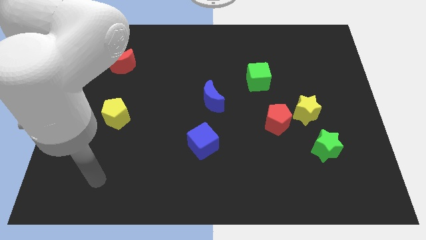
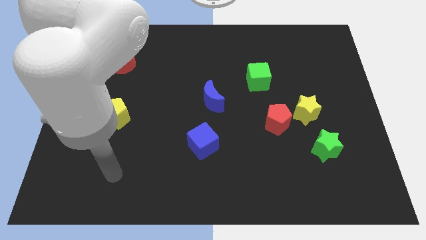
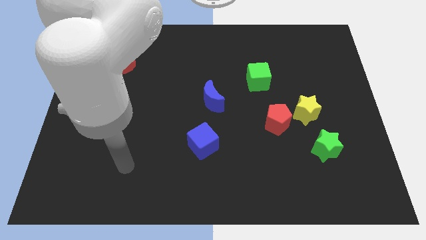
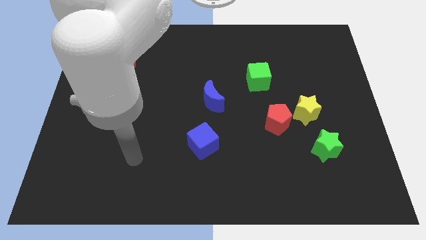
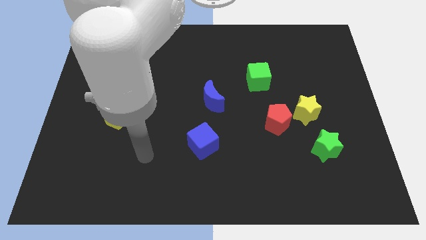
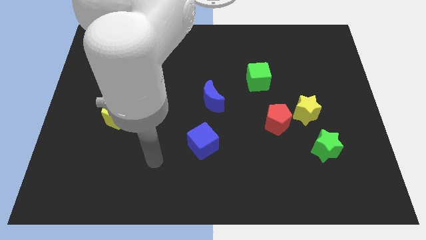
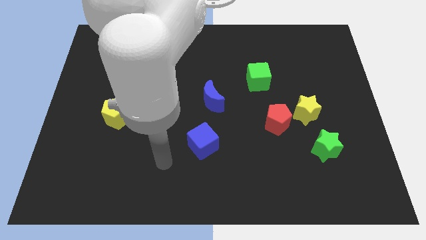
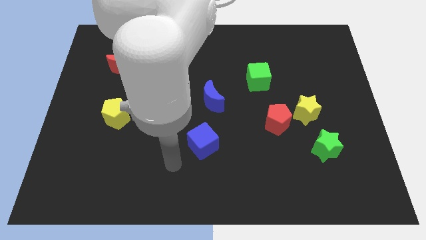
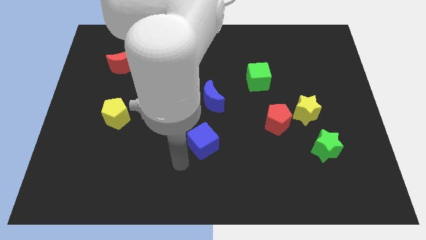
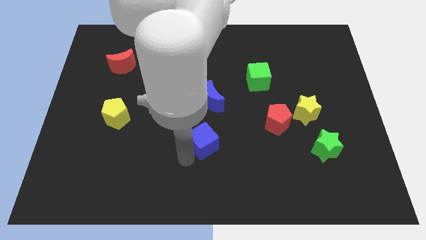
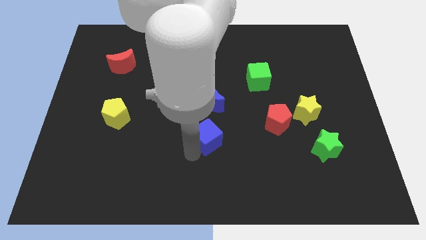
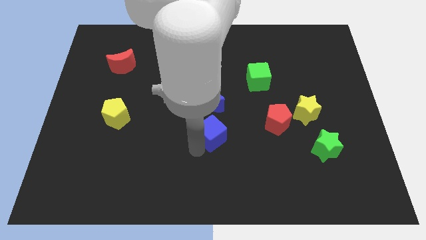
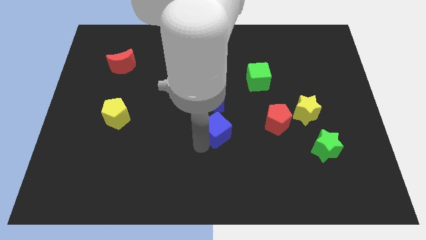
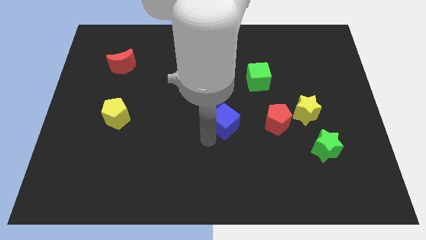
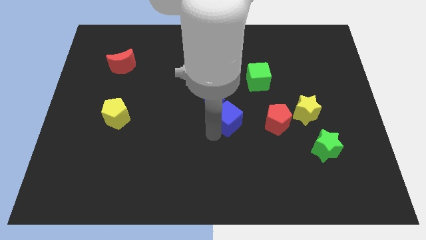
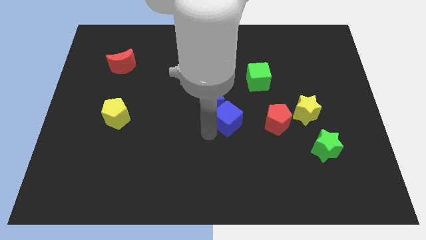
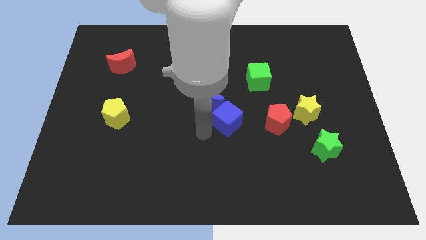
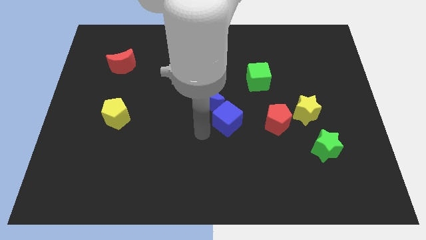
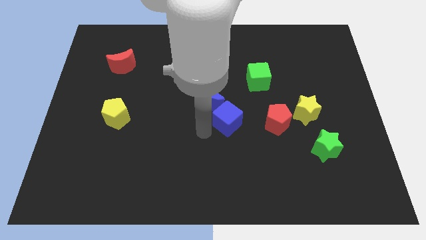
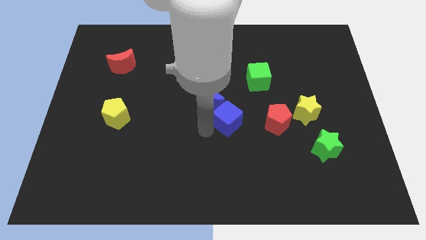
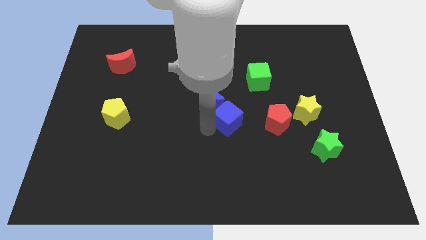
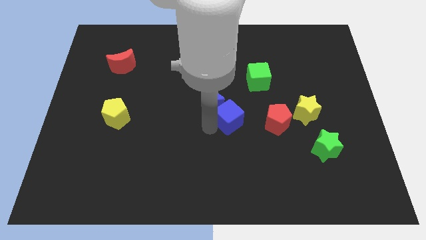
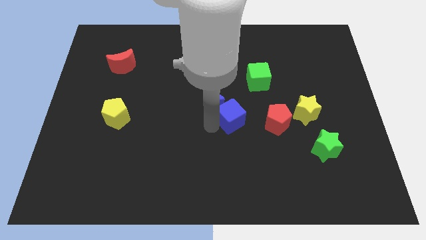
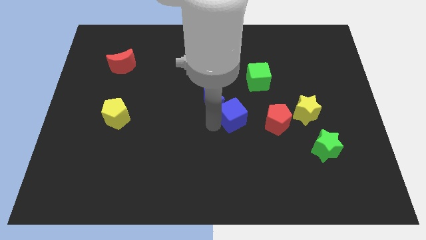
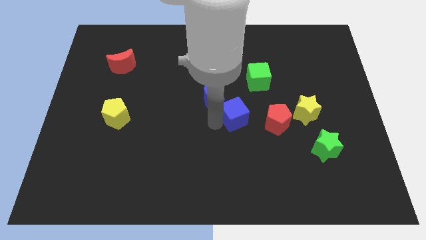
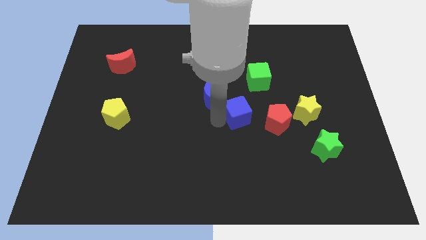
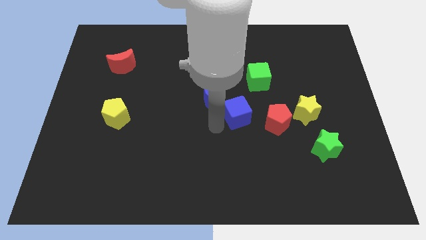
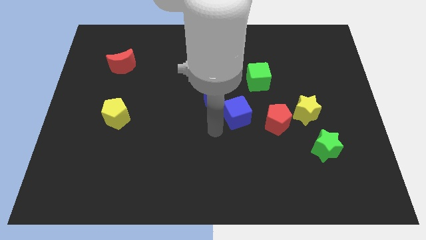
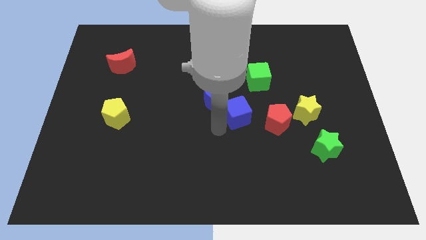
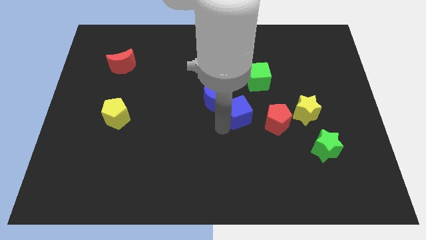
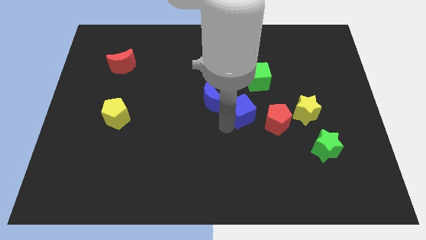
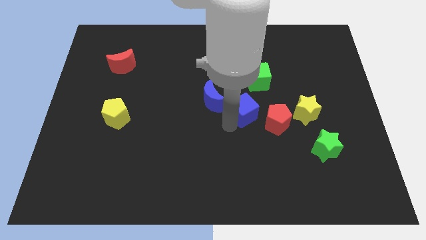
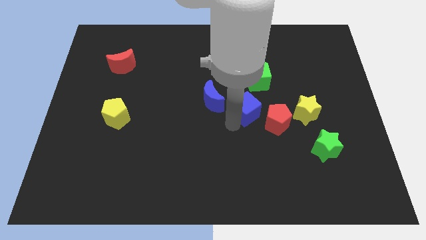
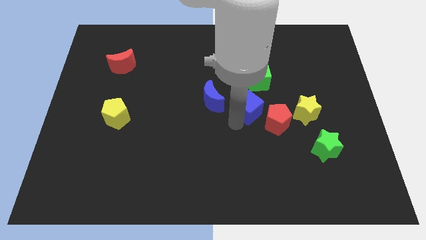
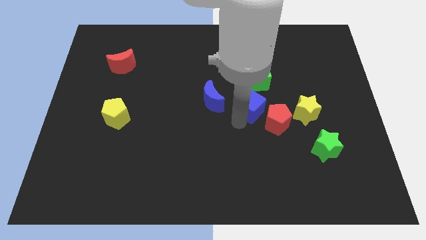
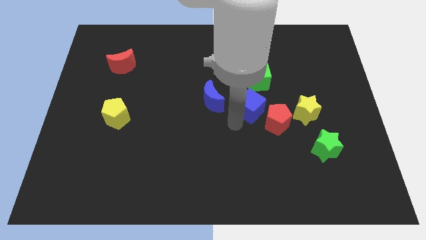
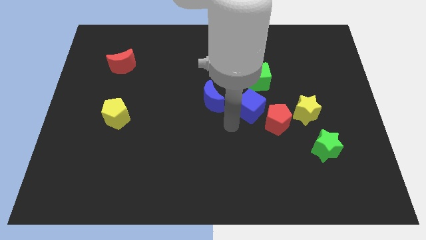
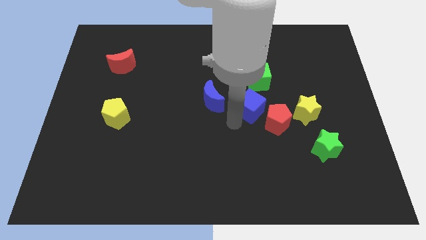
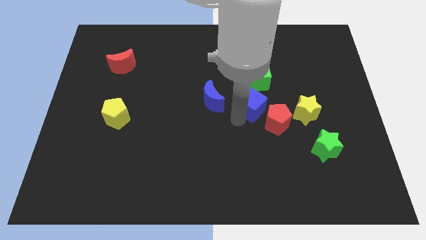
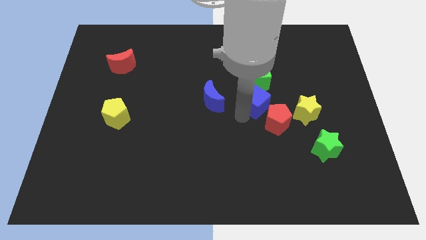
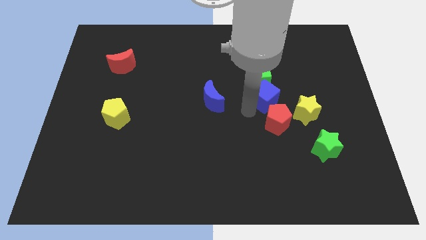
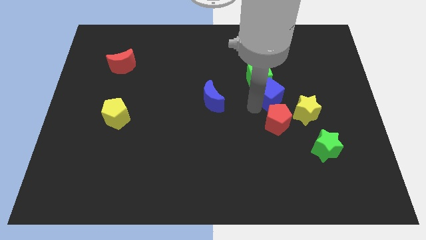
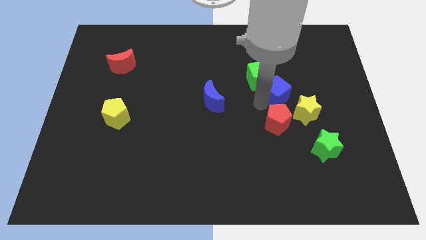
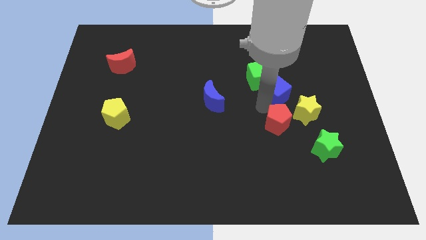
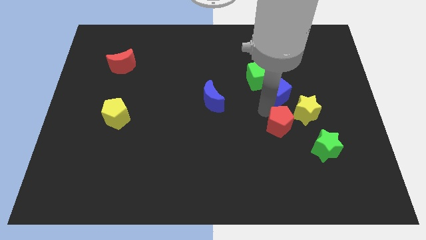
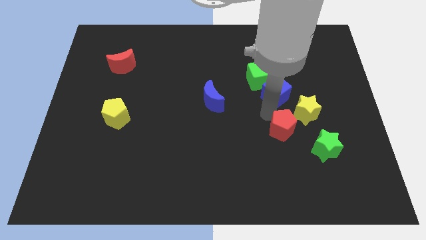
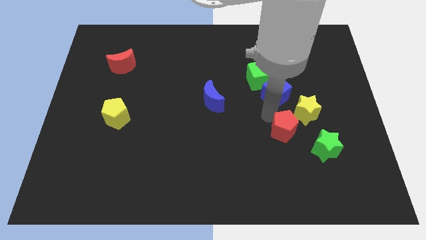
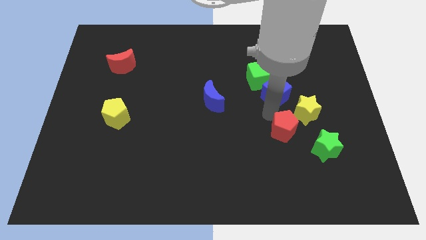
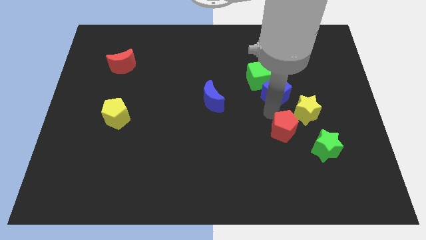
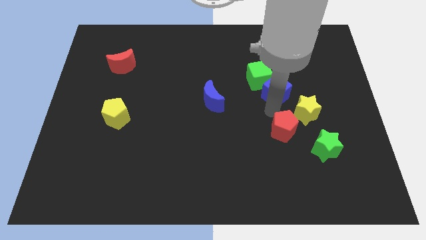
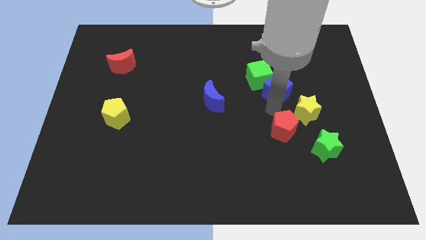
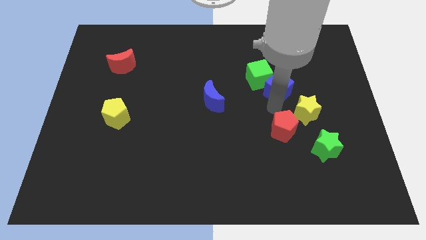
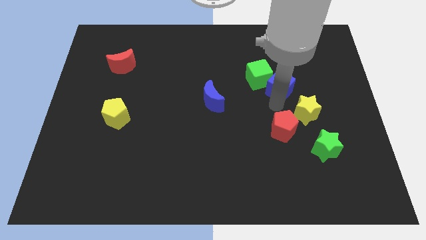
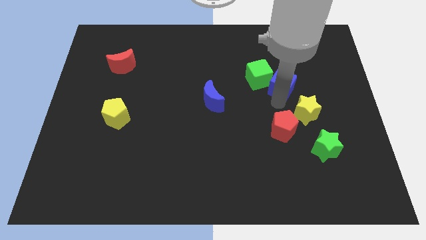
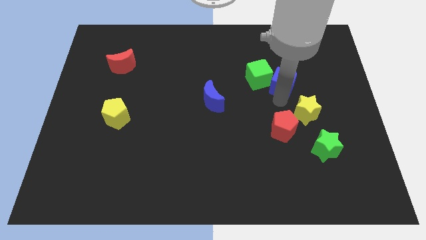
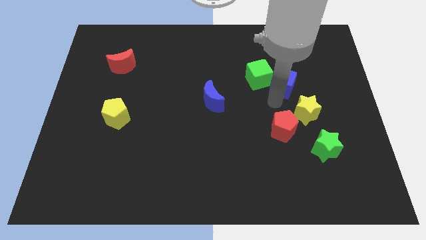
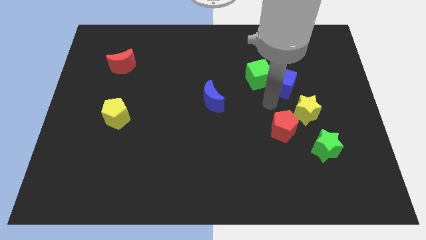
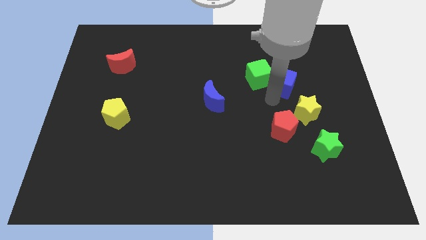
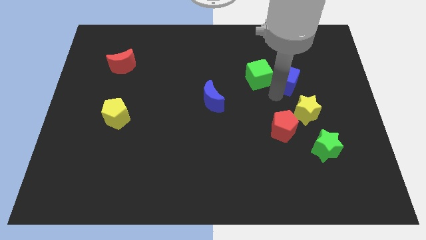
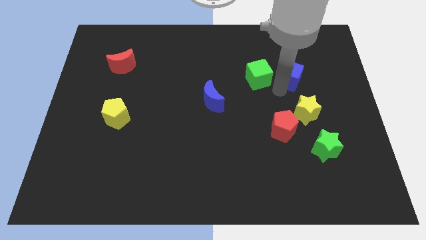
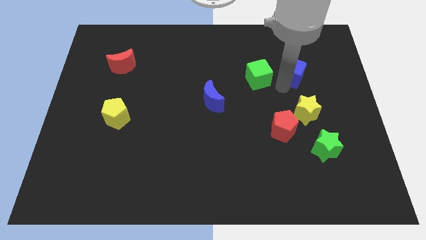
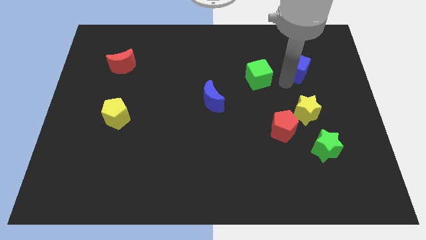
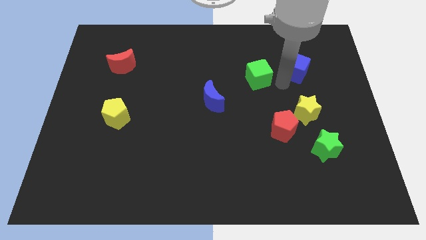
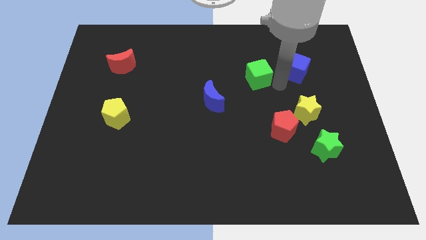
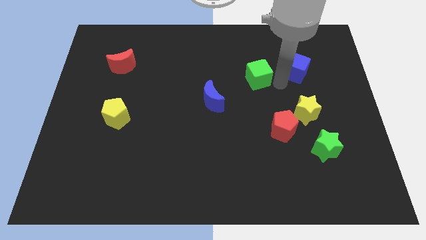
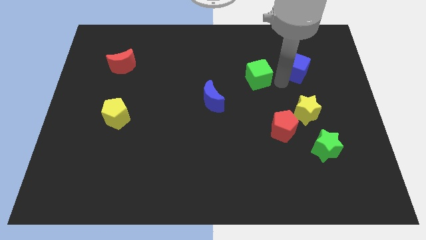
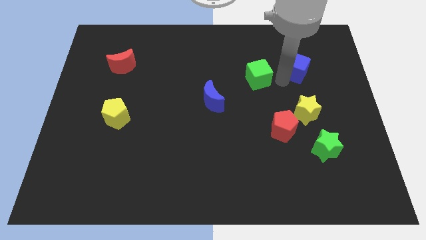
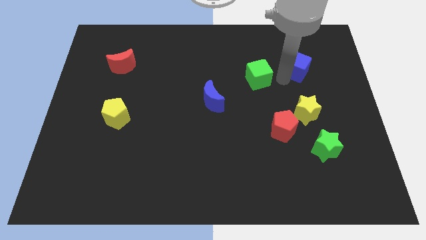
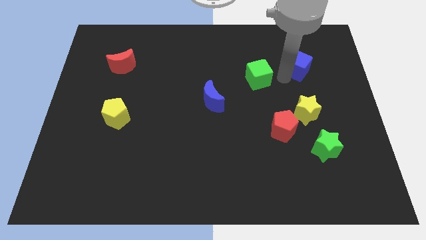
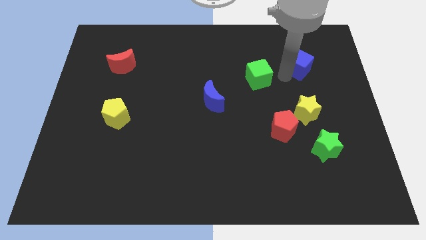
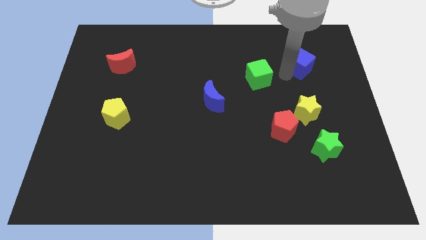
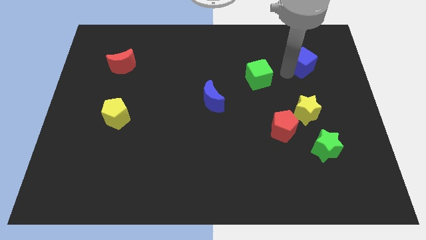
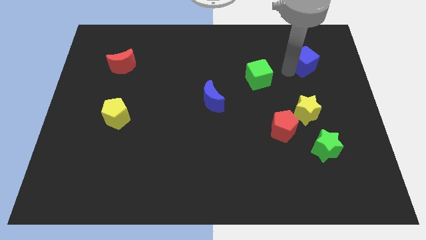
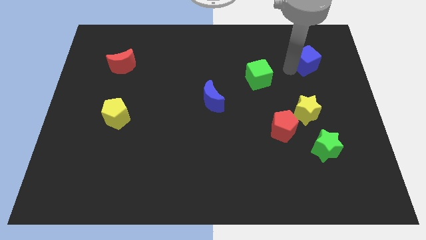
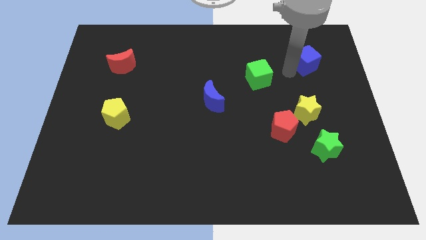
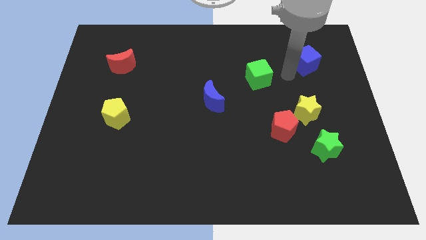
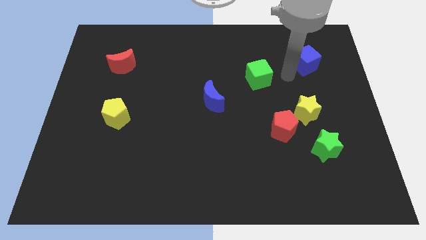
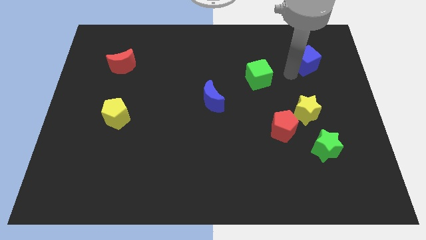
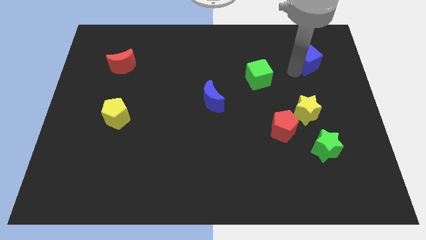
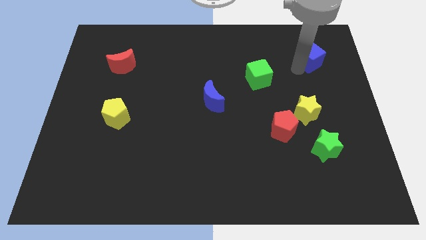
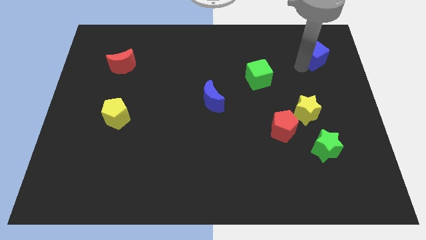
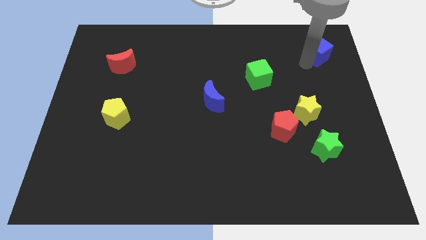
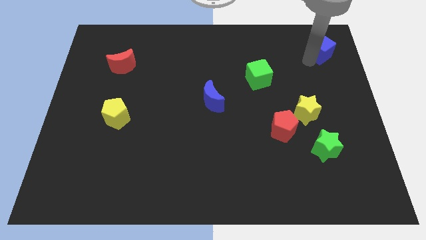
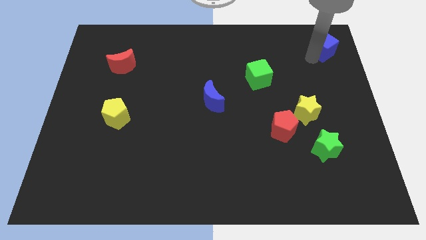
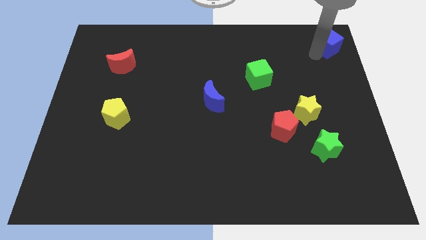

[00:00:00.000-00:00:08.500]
move the blue cube to the upper right corner
